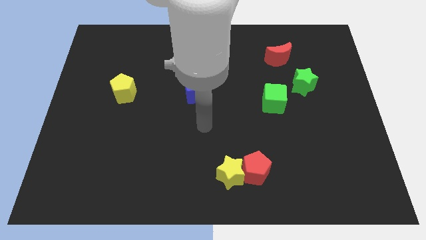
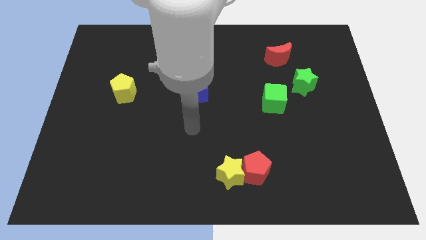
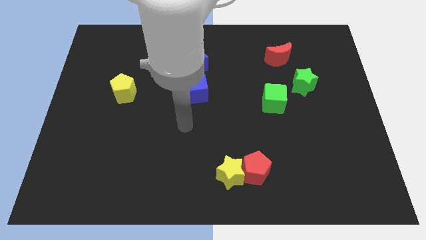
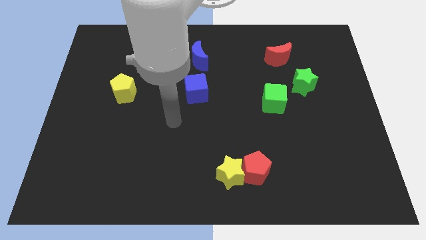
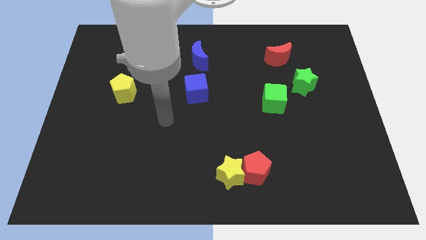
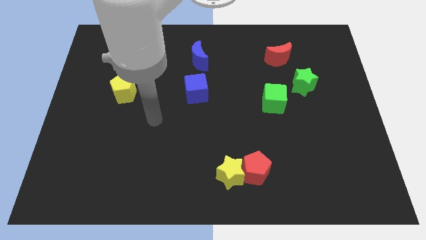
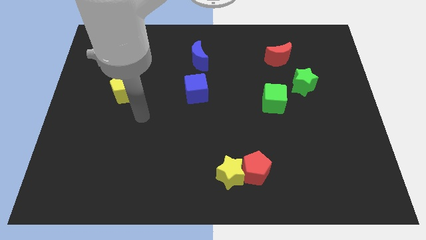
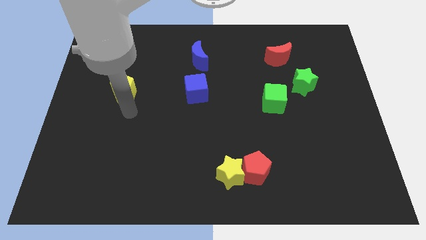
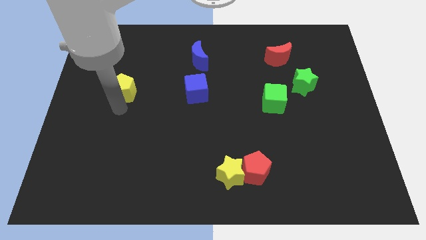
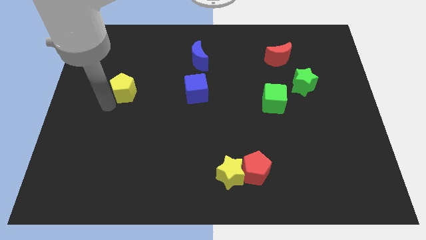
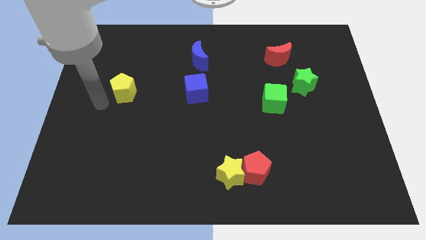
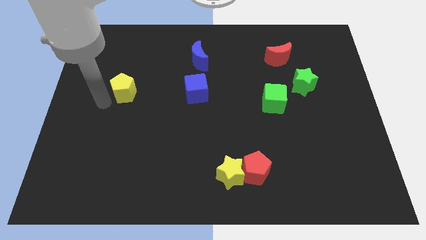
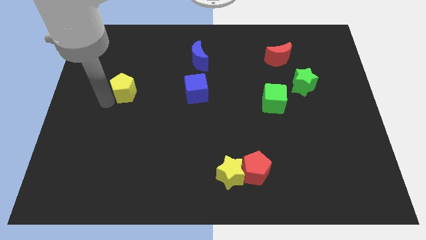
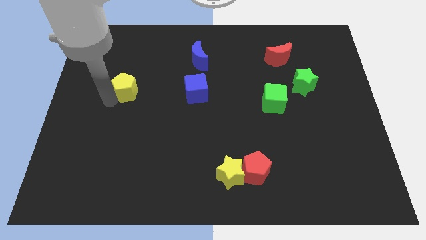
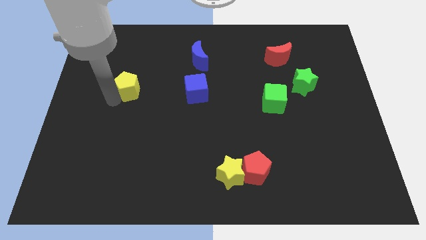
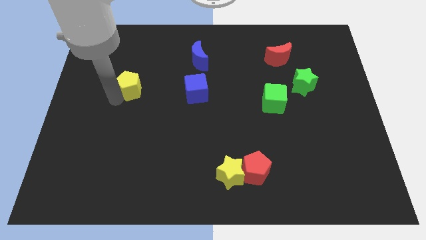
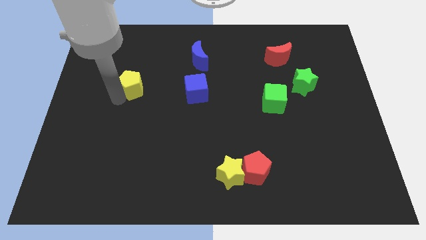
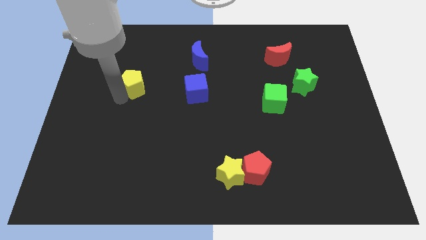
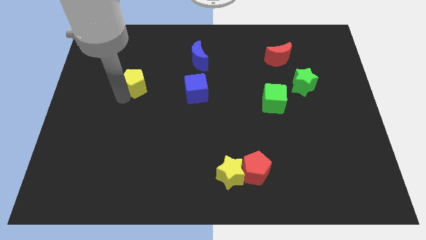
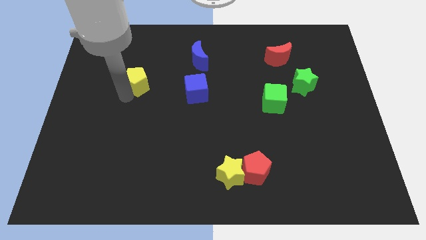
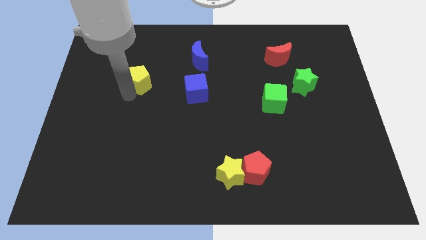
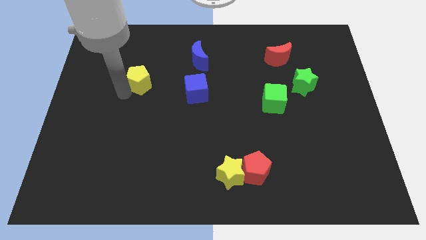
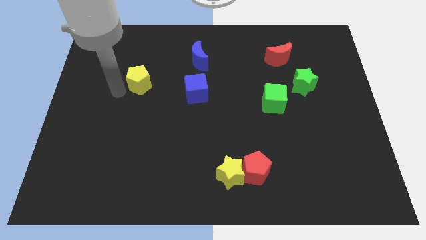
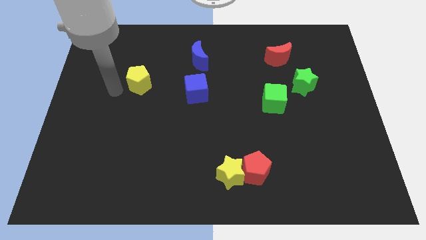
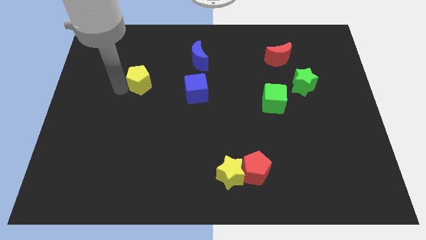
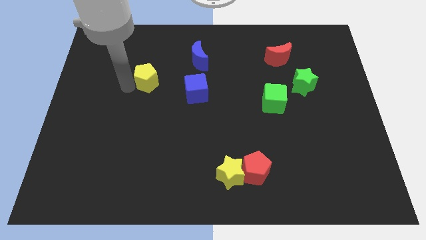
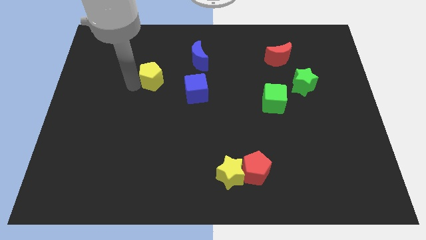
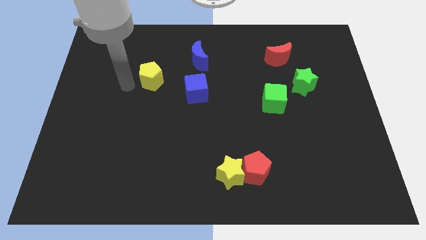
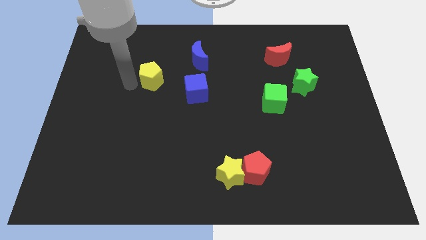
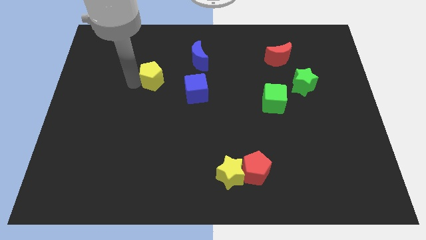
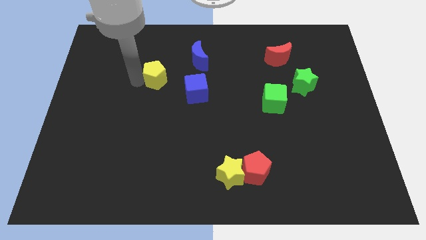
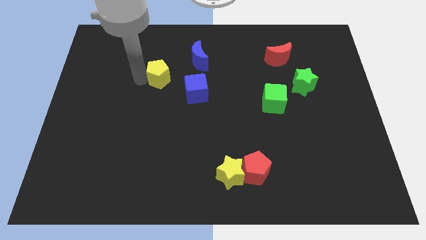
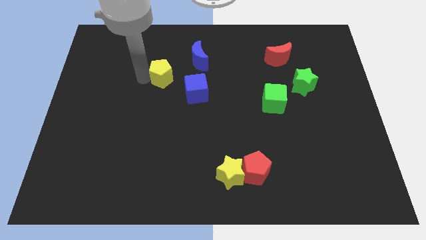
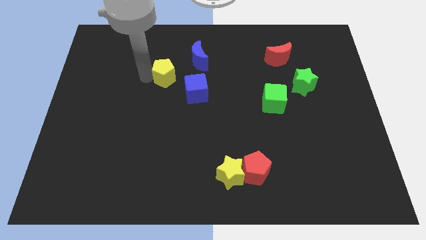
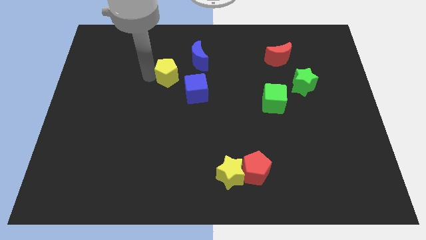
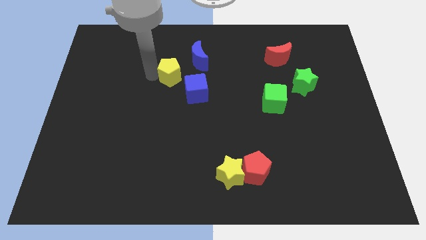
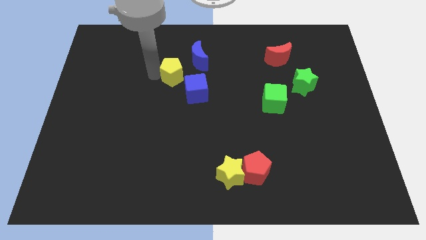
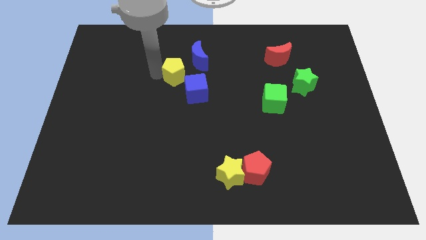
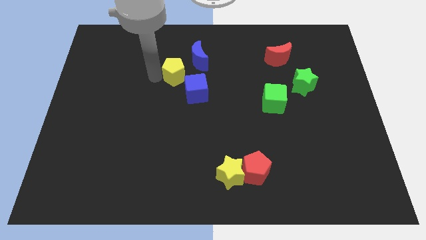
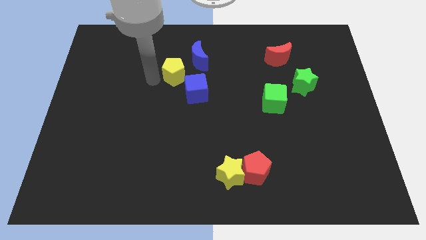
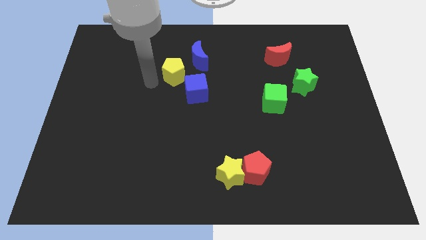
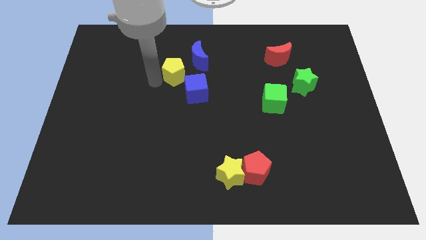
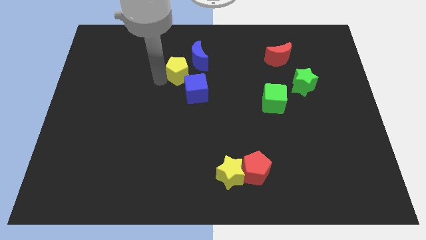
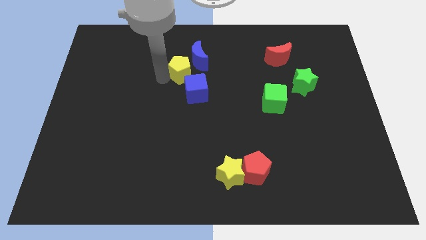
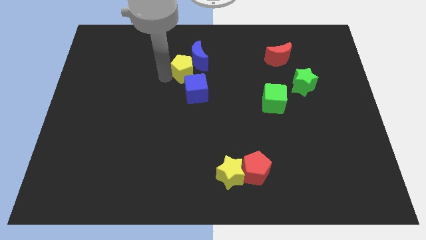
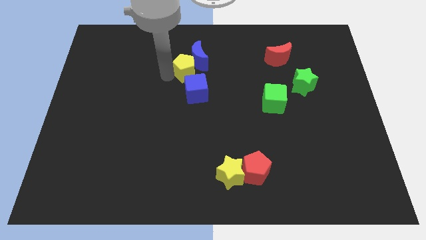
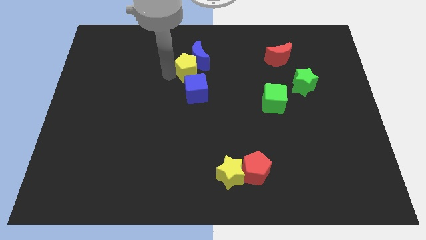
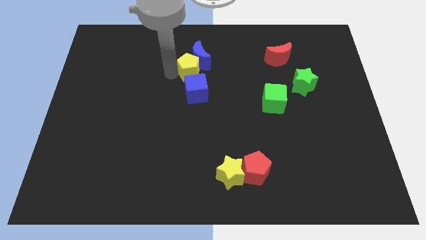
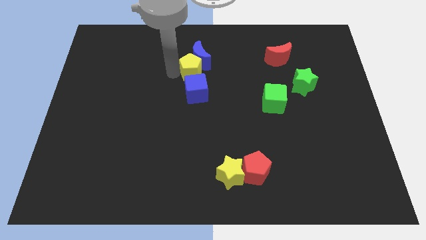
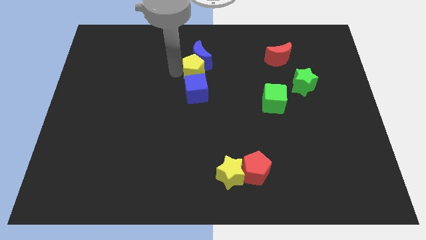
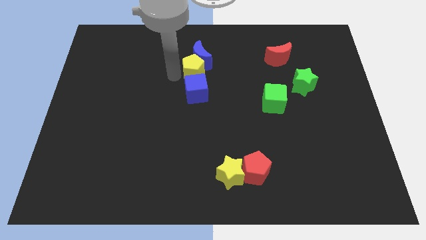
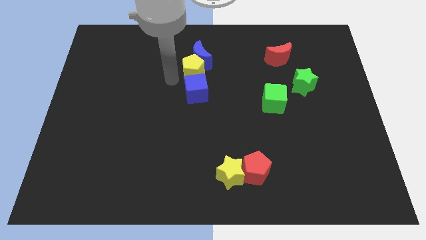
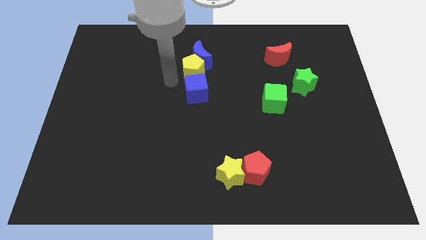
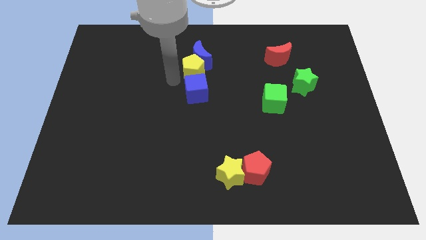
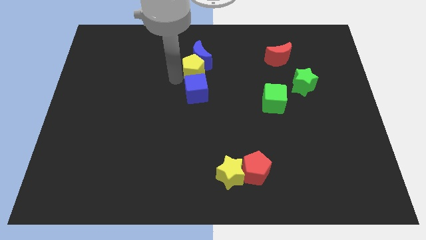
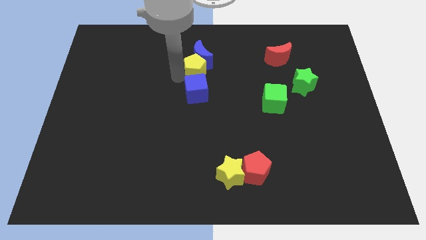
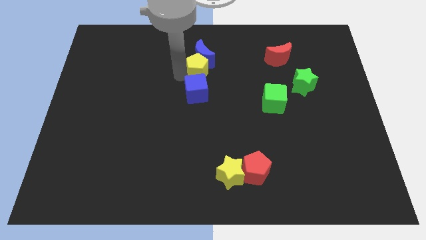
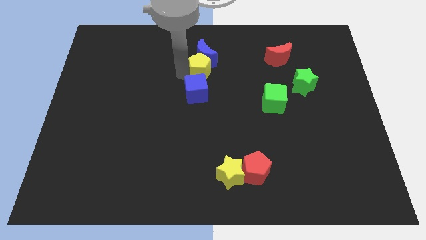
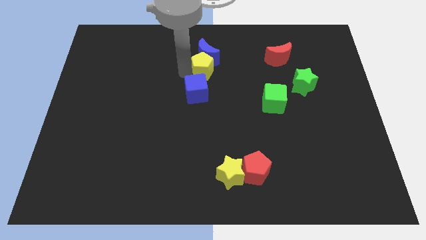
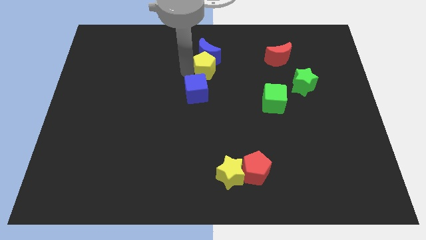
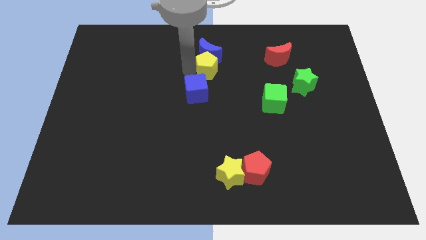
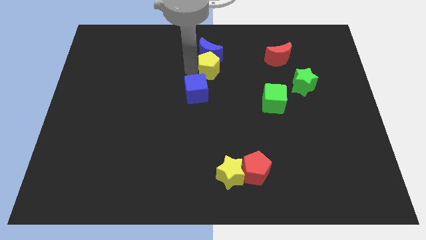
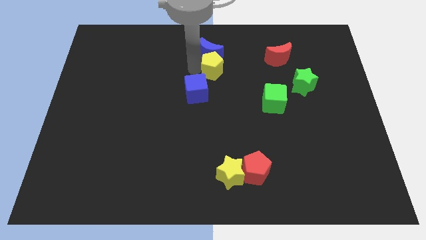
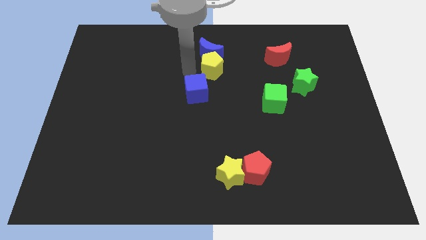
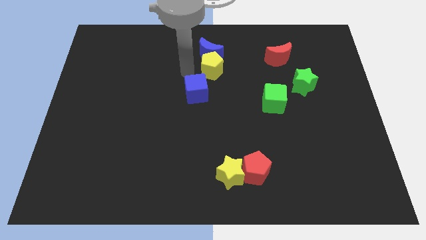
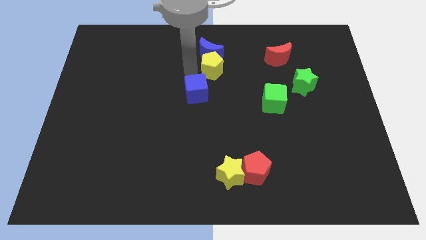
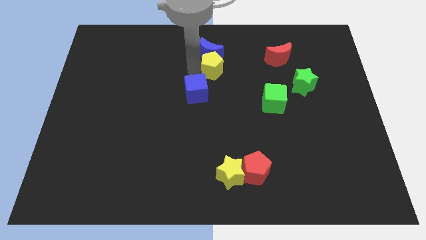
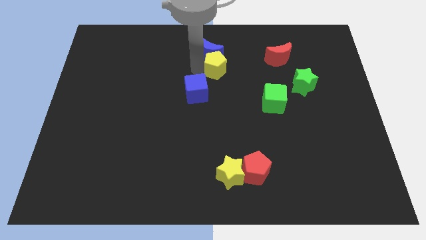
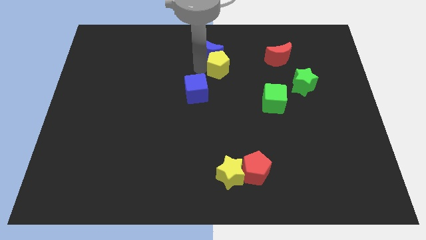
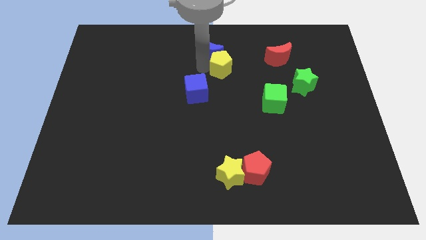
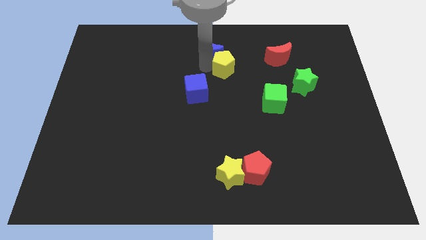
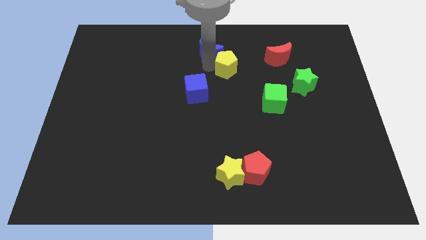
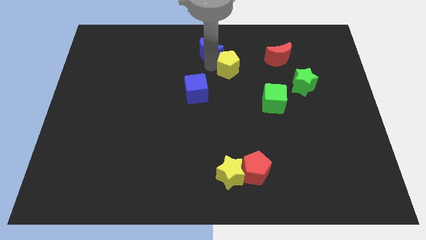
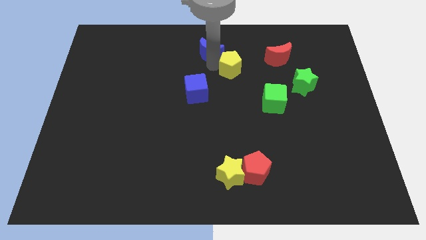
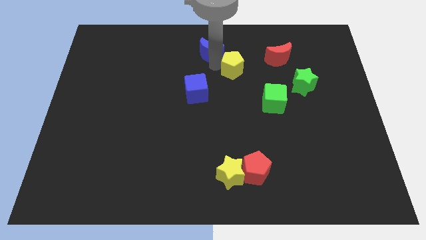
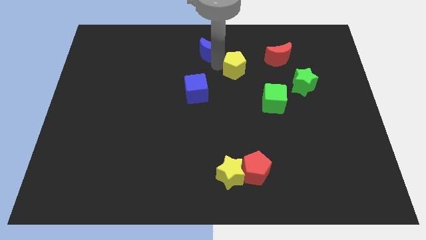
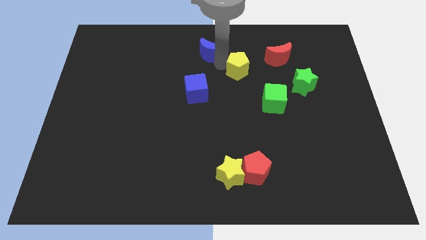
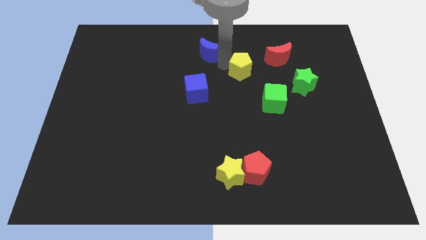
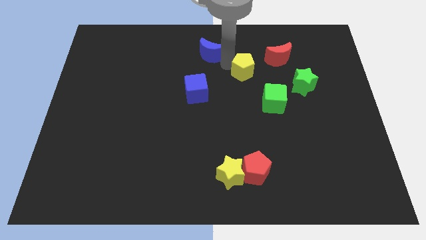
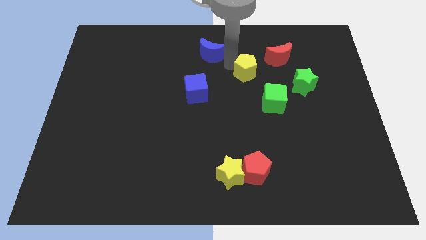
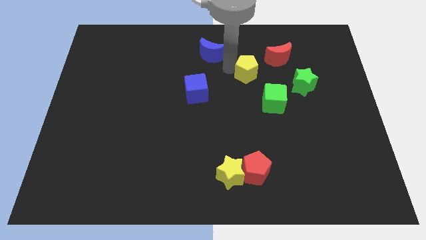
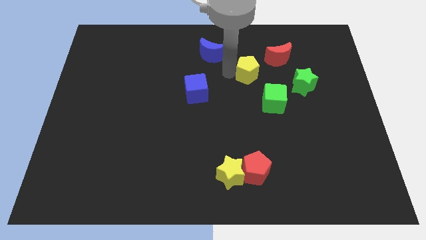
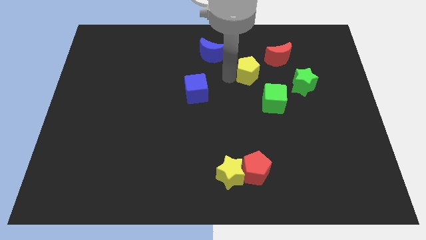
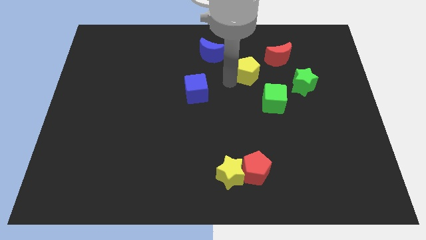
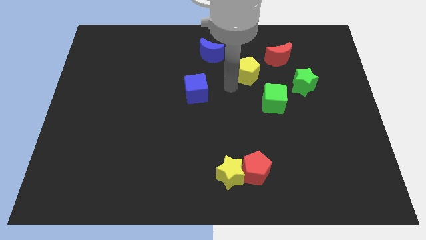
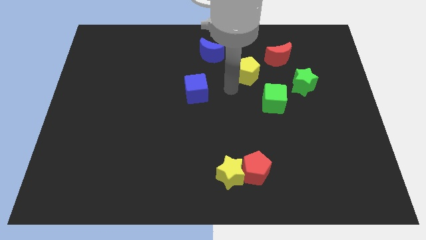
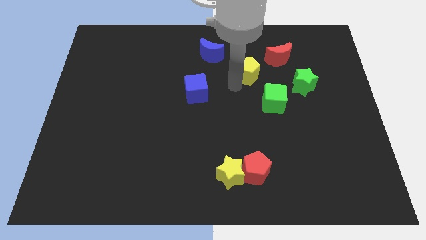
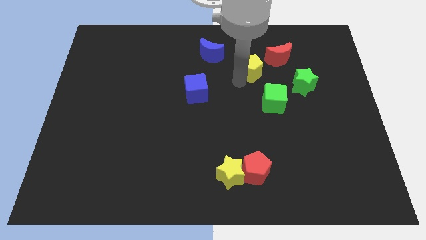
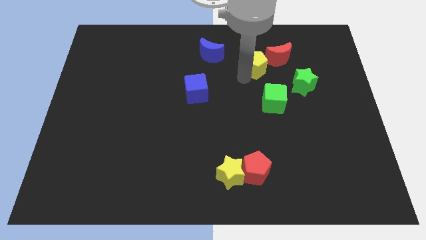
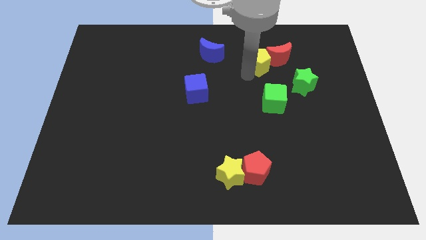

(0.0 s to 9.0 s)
slide the yellow pentagon towards the red moon
